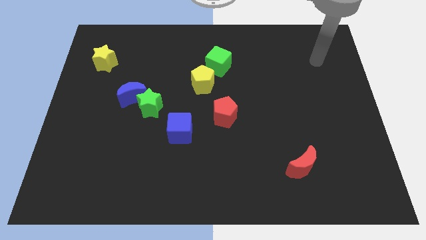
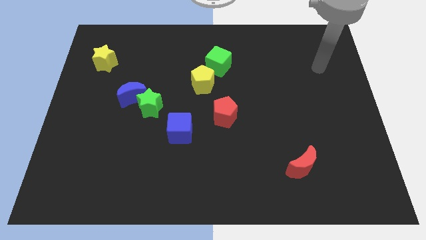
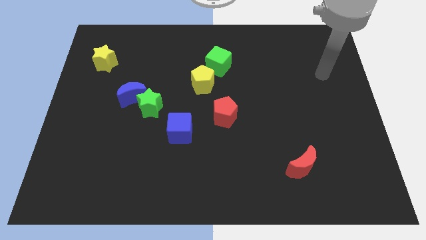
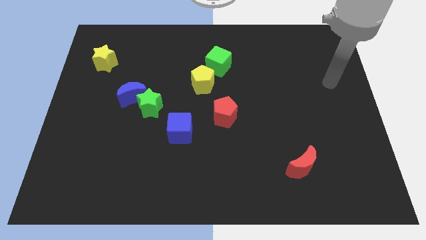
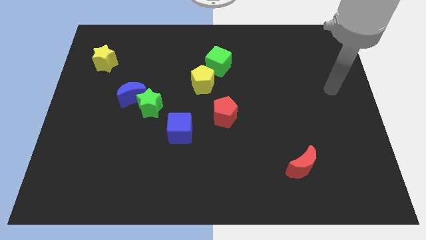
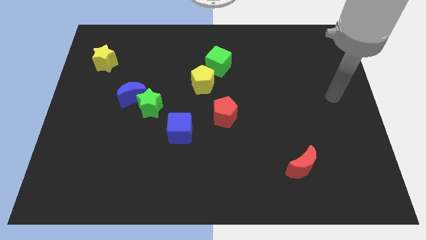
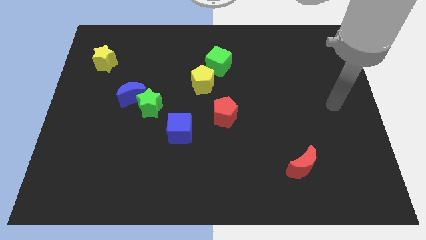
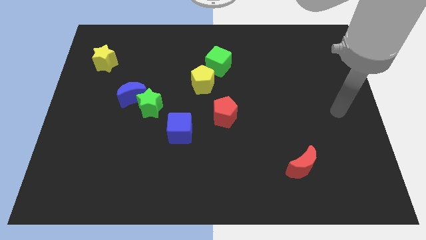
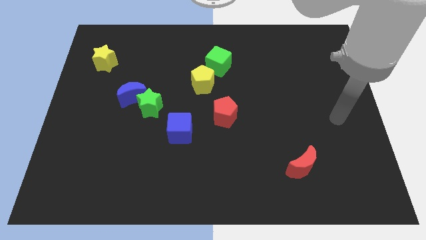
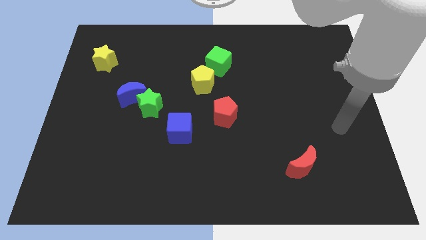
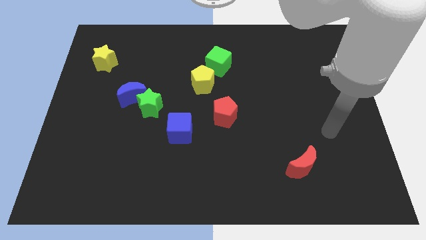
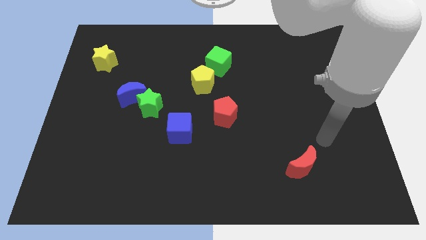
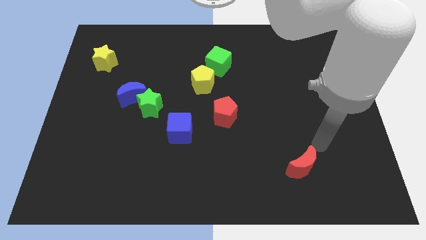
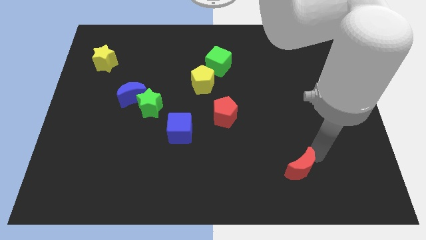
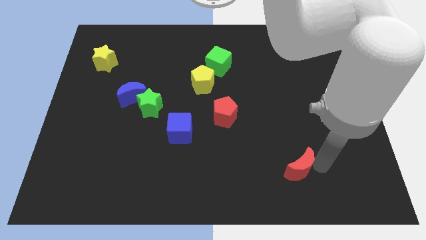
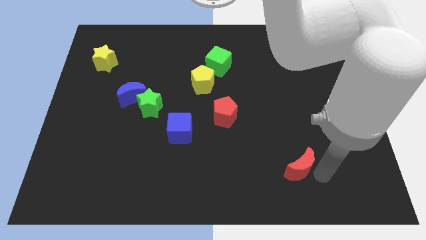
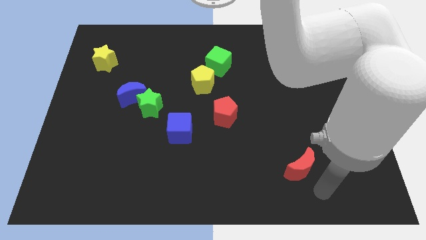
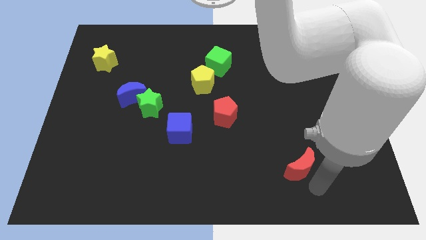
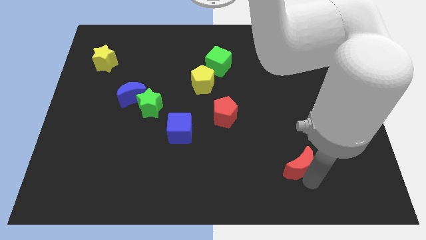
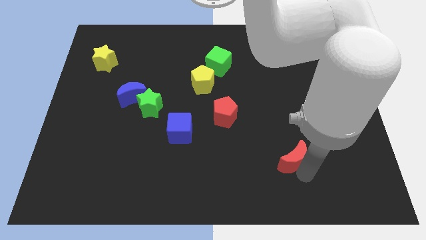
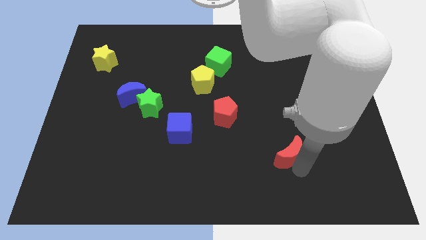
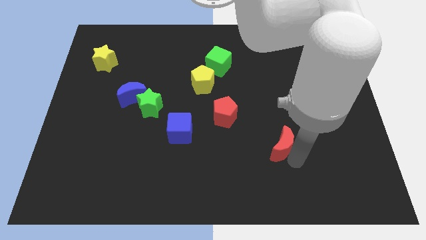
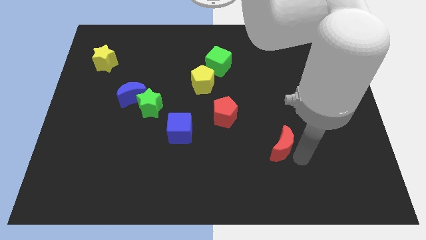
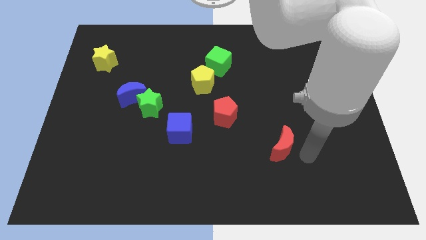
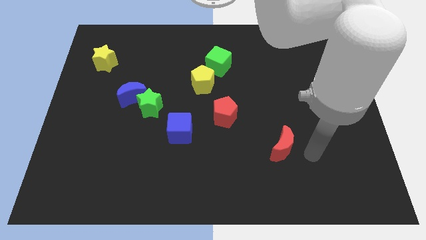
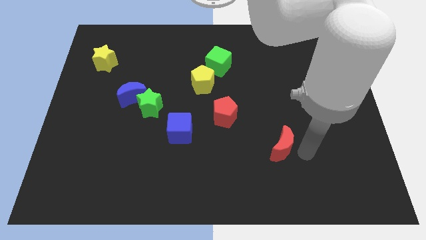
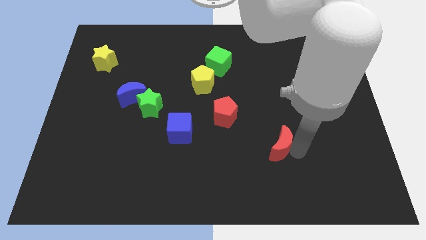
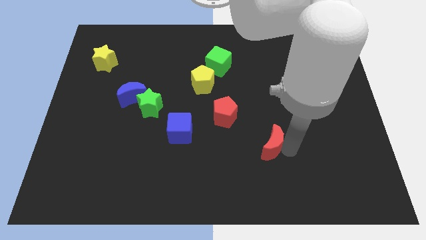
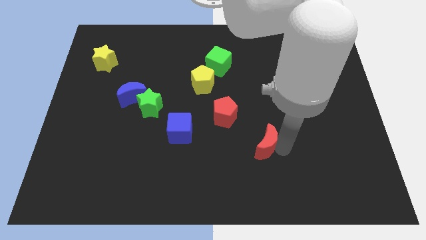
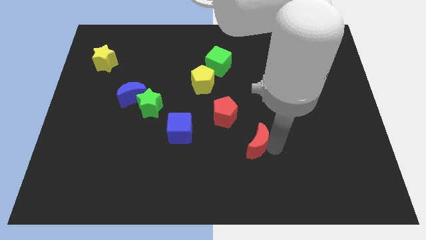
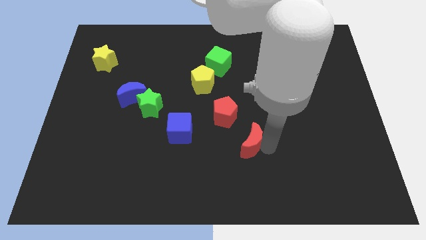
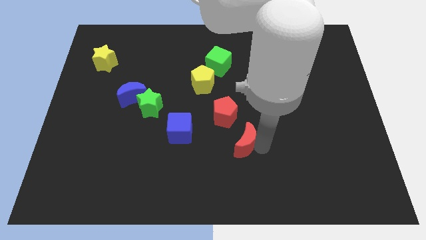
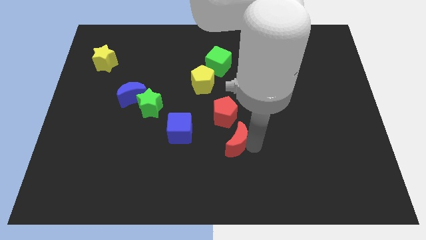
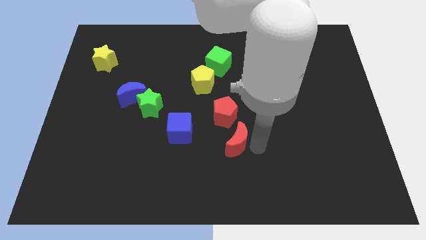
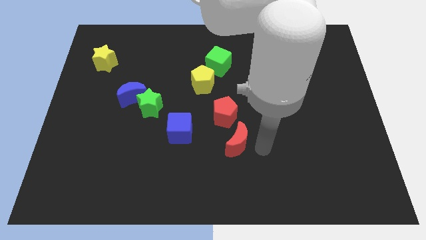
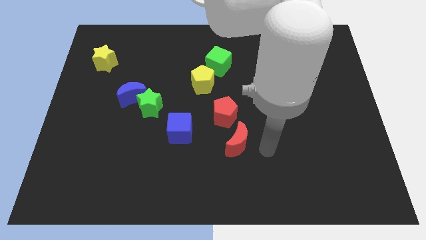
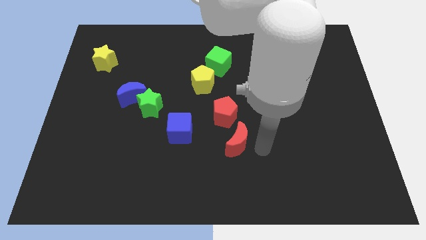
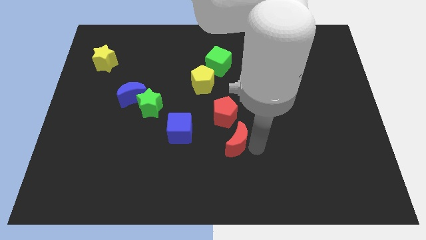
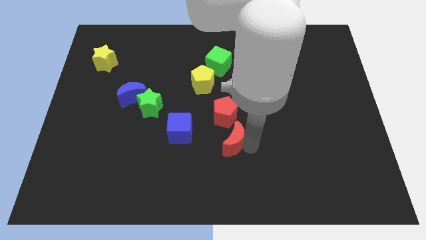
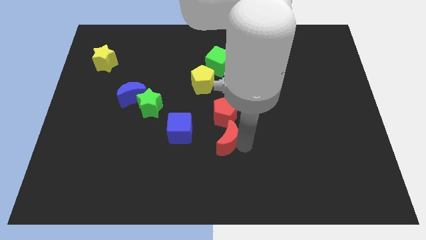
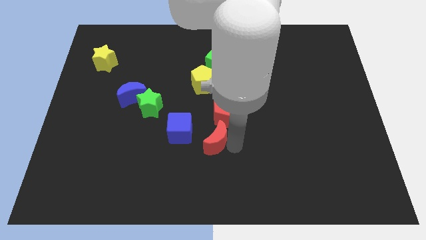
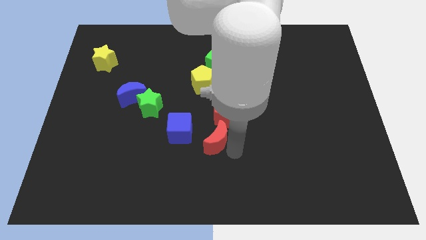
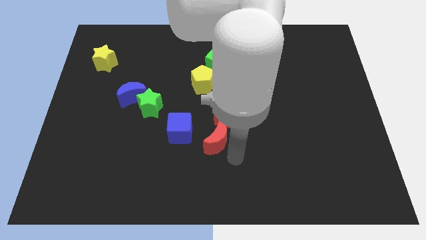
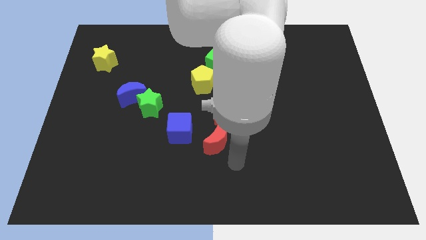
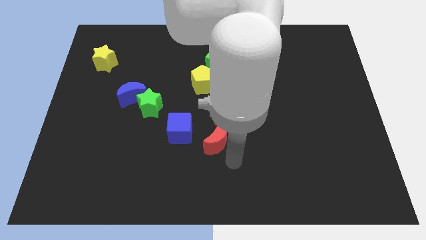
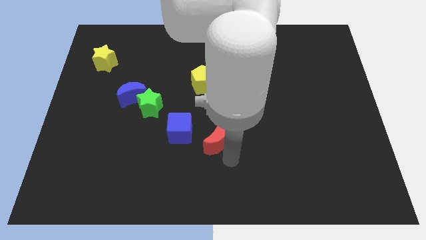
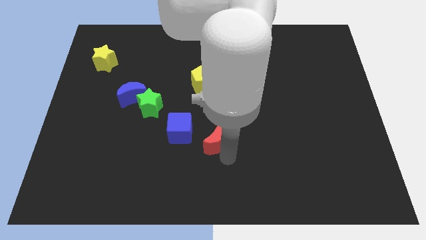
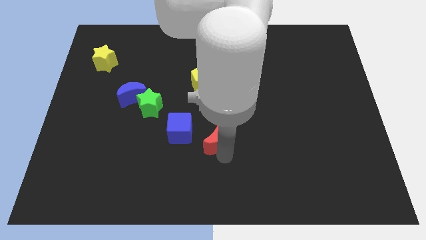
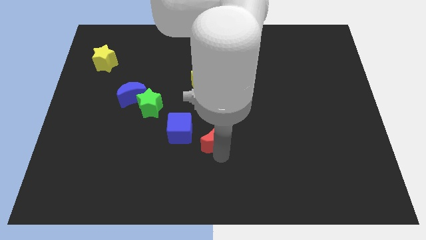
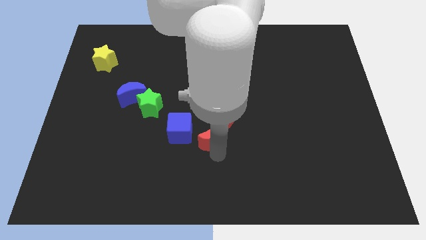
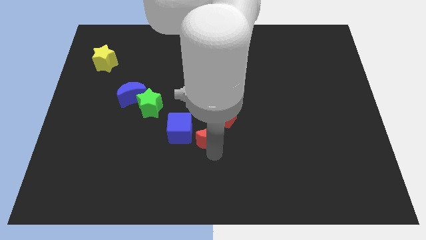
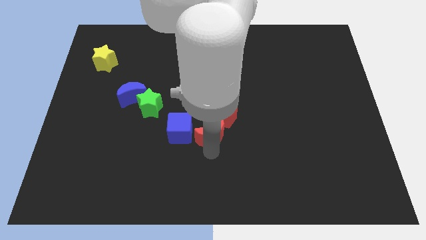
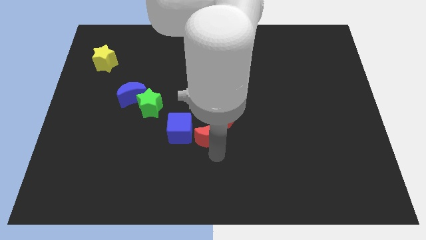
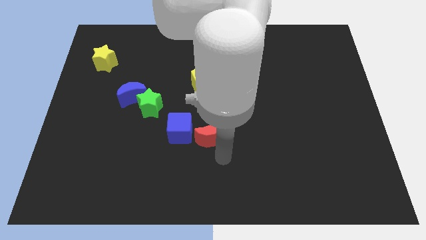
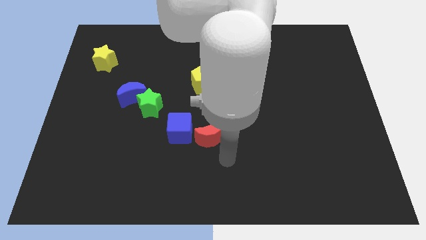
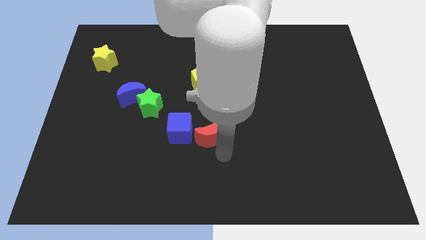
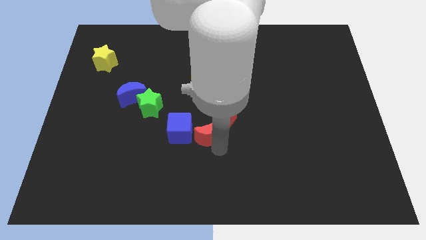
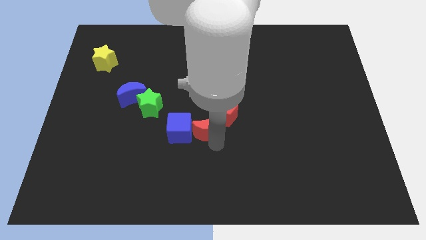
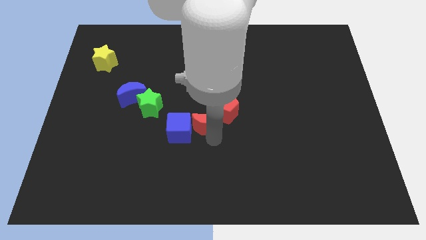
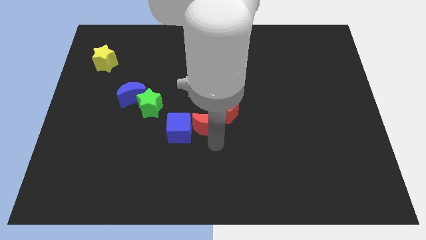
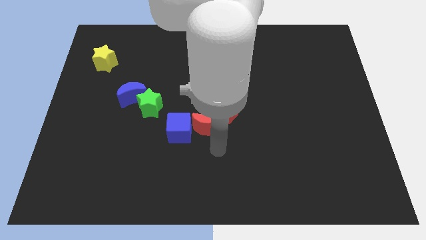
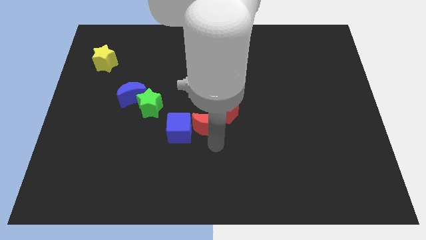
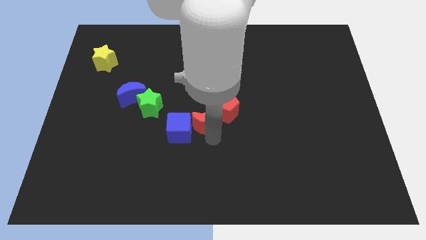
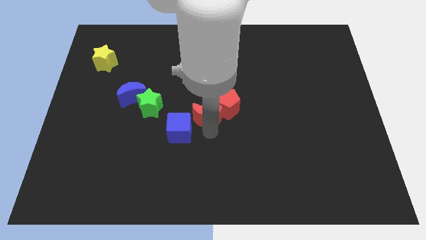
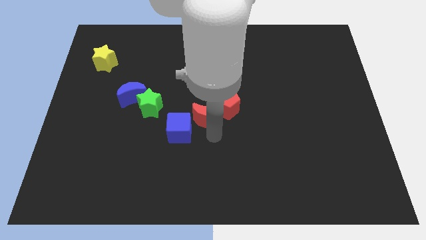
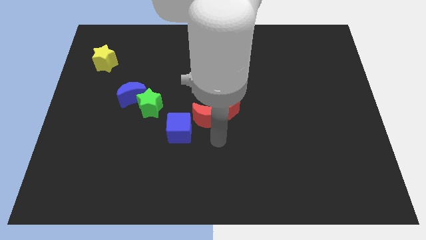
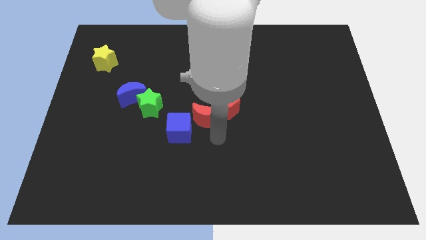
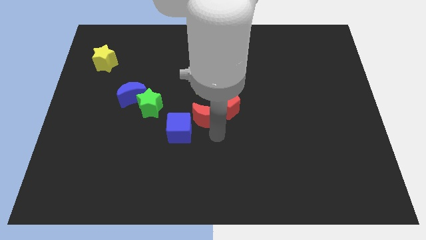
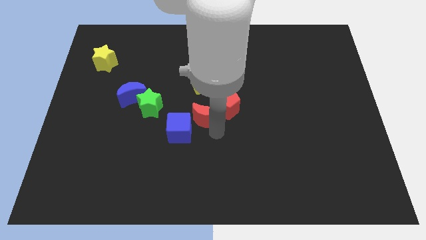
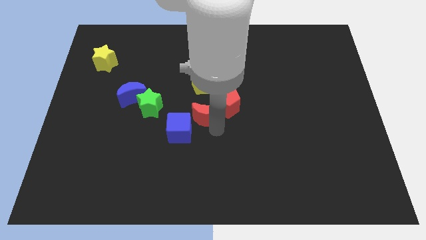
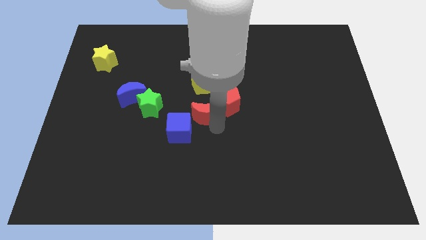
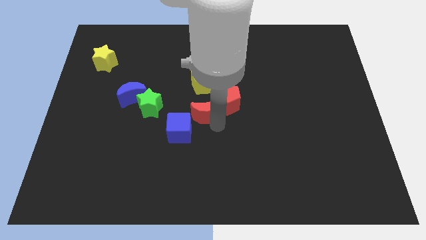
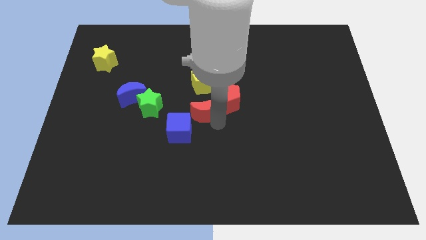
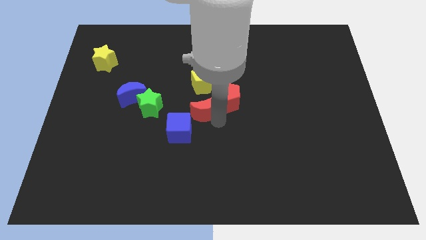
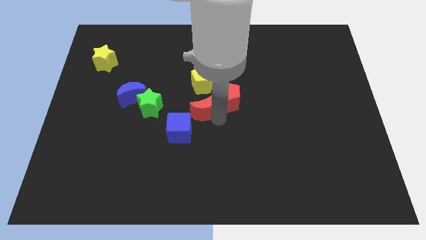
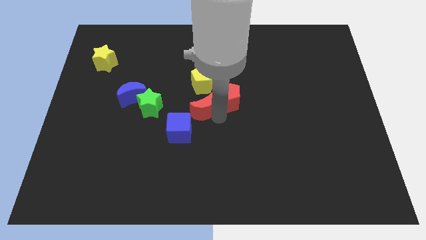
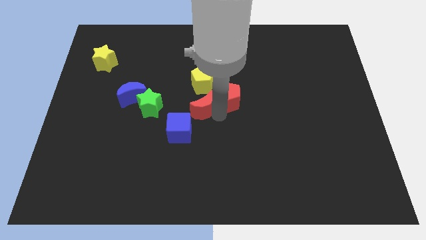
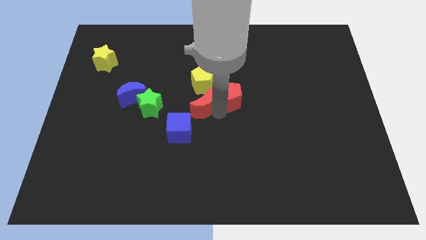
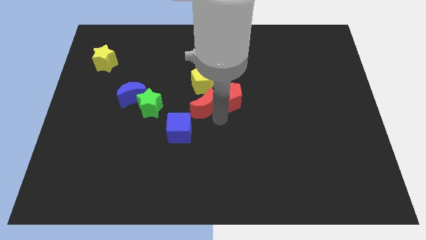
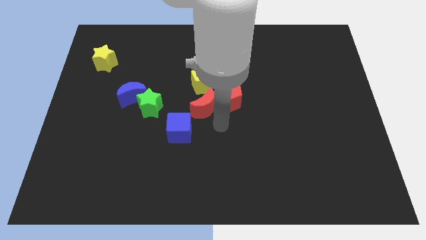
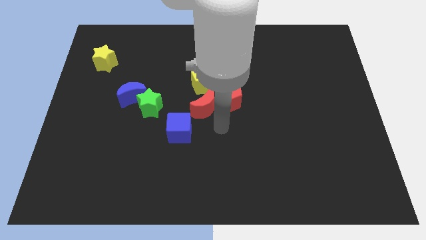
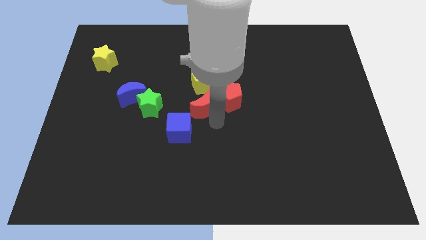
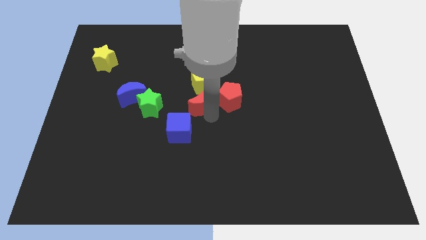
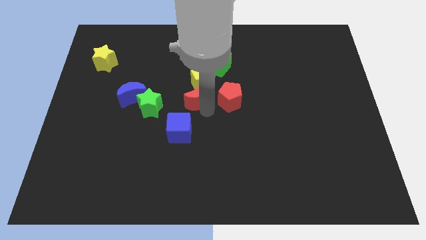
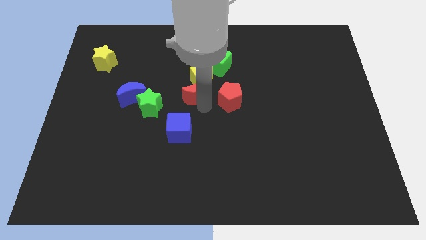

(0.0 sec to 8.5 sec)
put the red moon to the bottom left side of the green cube
